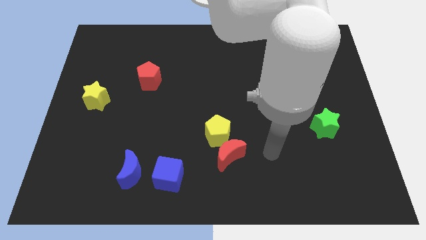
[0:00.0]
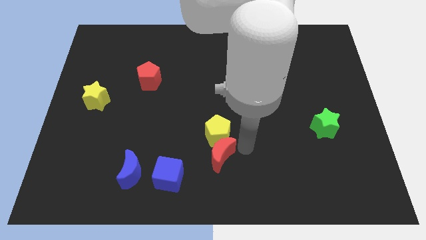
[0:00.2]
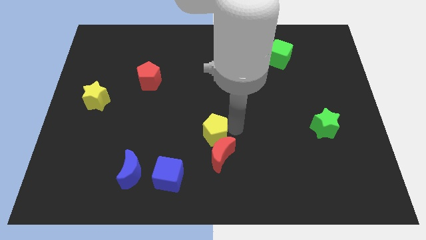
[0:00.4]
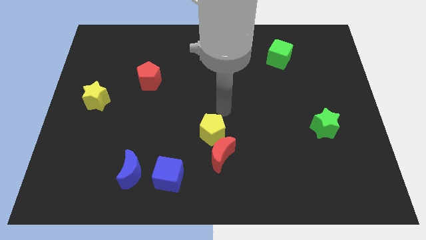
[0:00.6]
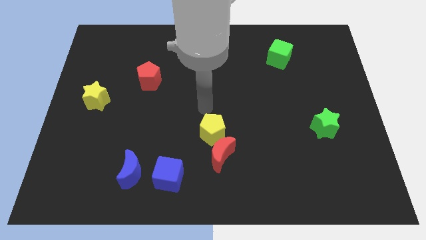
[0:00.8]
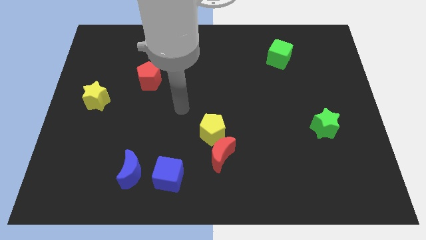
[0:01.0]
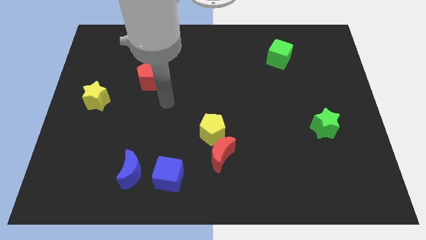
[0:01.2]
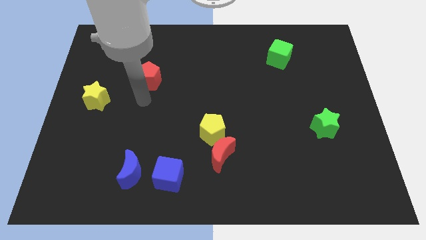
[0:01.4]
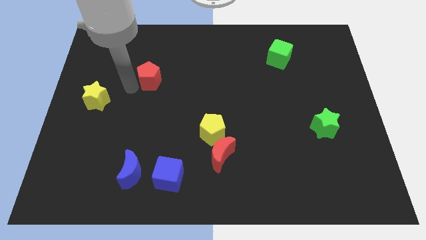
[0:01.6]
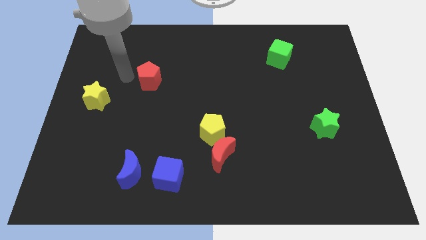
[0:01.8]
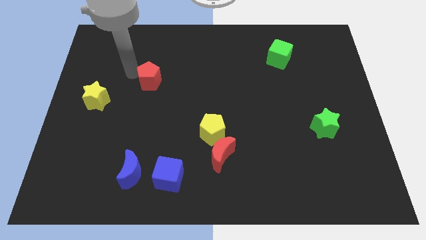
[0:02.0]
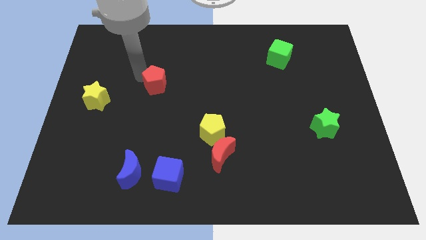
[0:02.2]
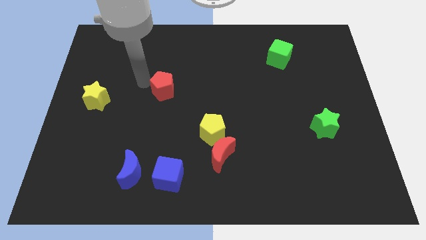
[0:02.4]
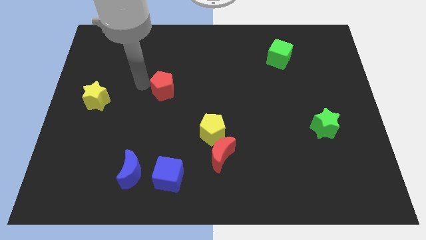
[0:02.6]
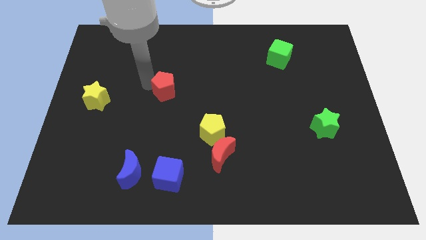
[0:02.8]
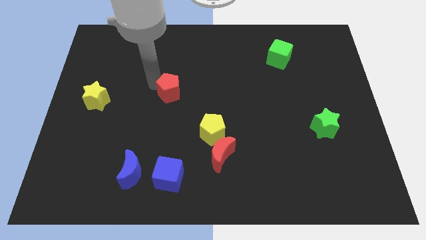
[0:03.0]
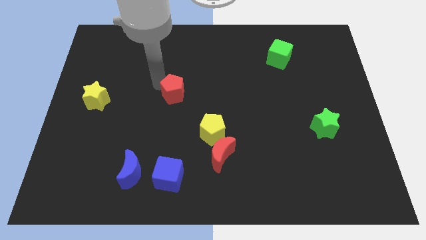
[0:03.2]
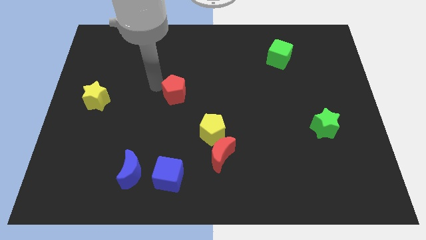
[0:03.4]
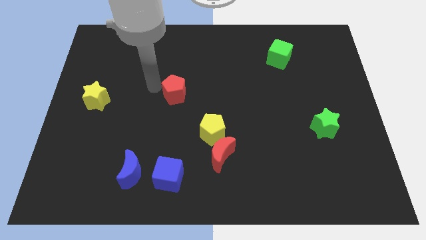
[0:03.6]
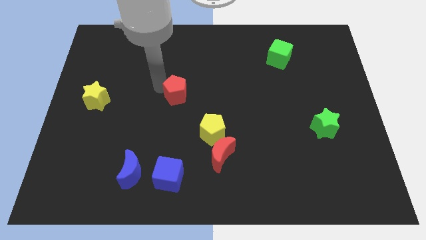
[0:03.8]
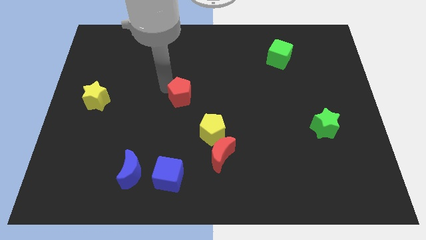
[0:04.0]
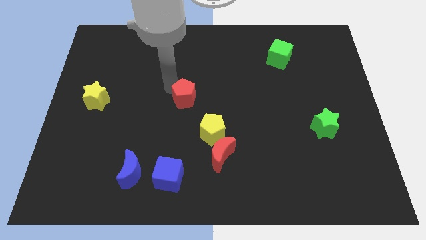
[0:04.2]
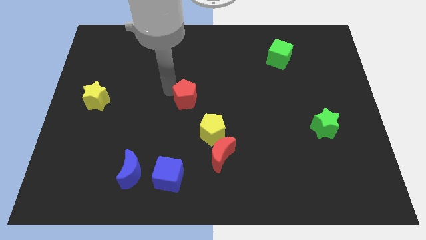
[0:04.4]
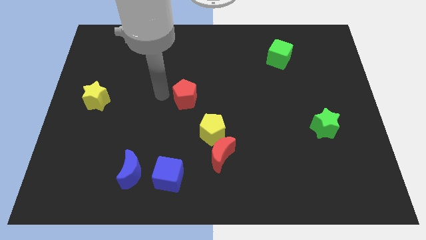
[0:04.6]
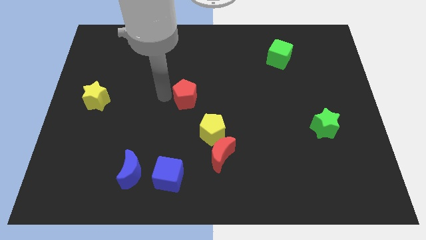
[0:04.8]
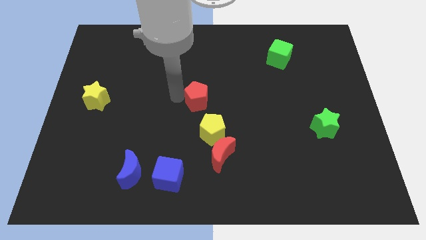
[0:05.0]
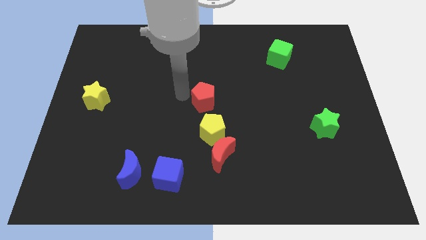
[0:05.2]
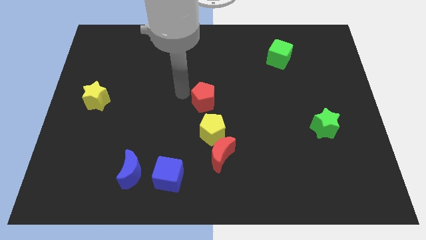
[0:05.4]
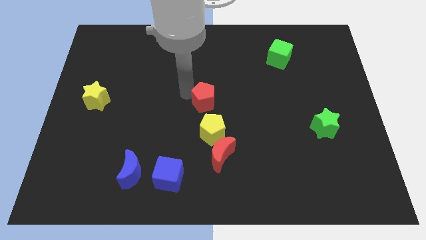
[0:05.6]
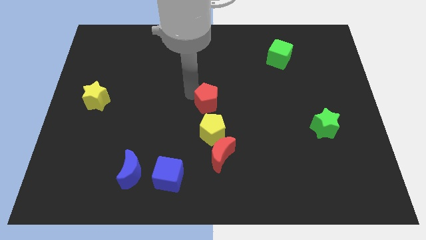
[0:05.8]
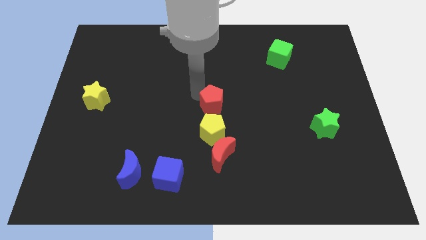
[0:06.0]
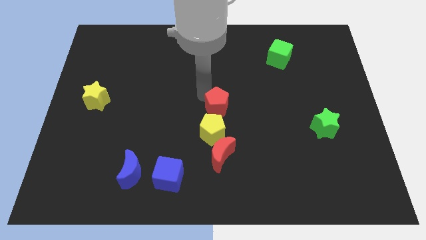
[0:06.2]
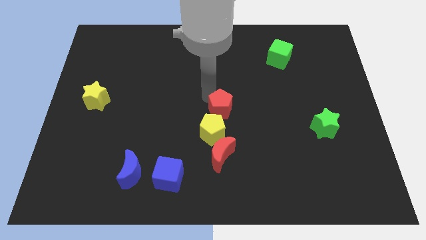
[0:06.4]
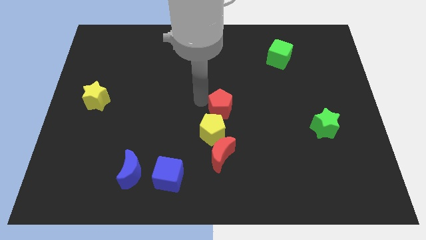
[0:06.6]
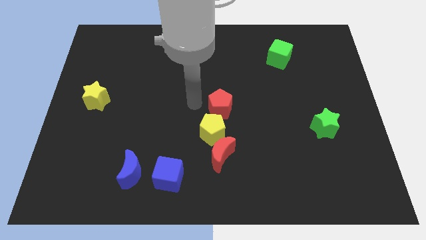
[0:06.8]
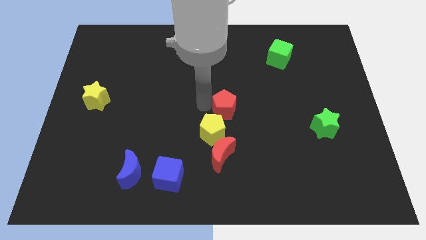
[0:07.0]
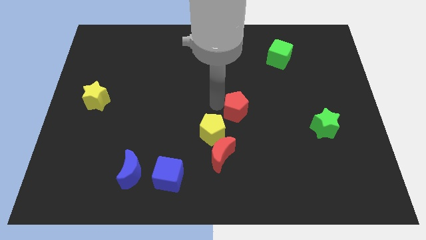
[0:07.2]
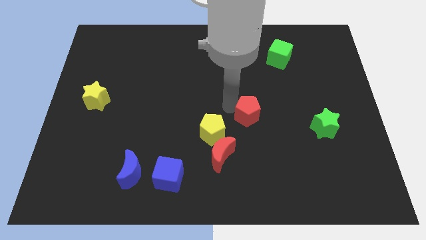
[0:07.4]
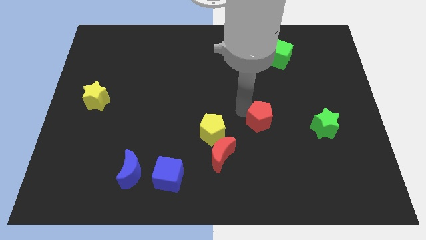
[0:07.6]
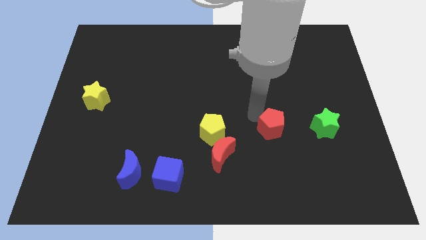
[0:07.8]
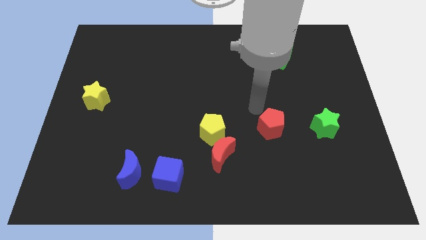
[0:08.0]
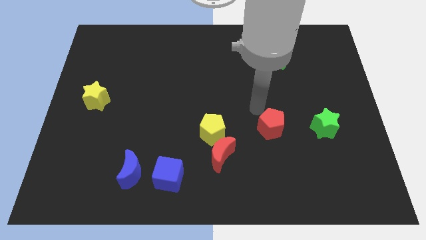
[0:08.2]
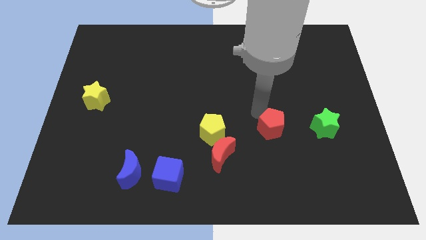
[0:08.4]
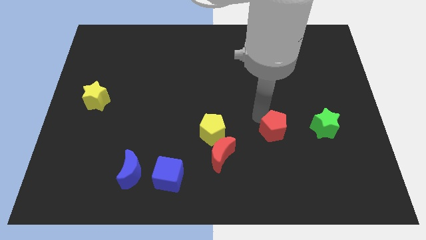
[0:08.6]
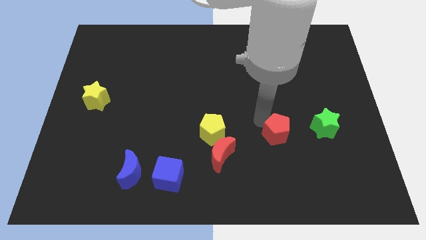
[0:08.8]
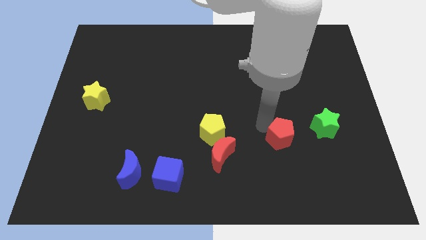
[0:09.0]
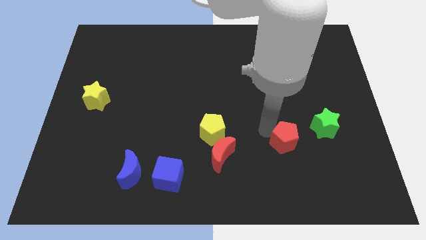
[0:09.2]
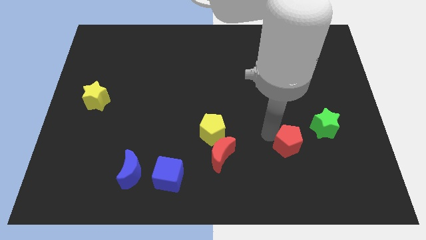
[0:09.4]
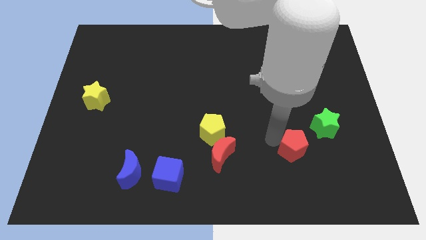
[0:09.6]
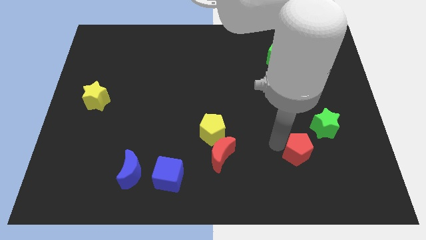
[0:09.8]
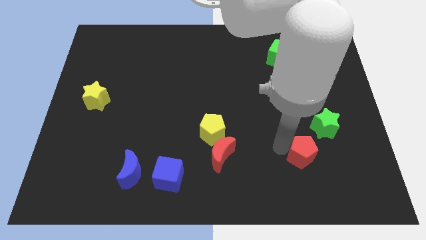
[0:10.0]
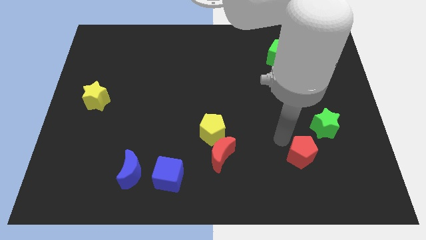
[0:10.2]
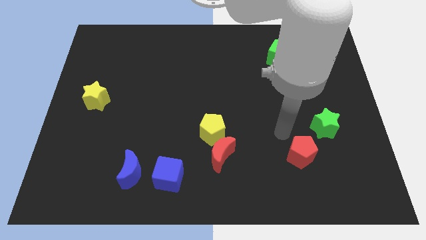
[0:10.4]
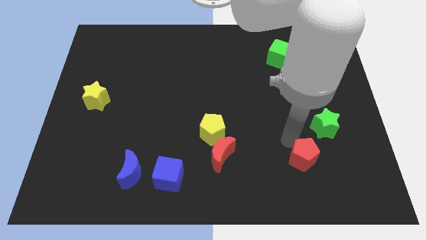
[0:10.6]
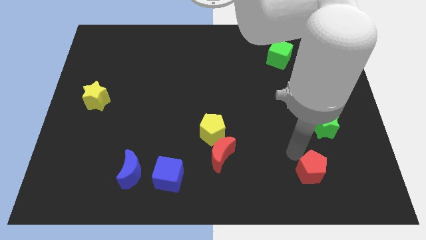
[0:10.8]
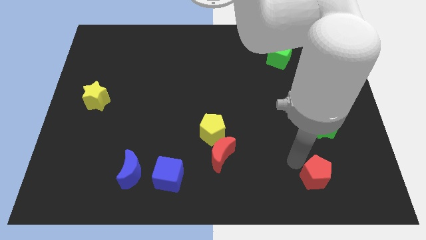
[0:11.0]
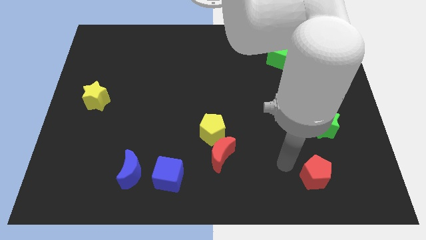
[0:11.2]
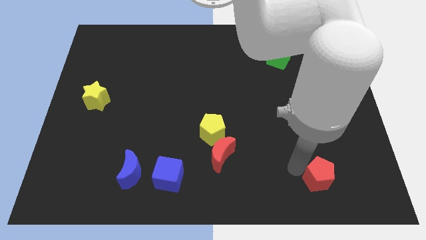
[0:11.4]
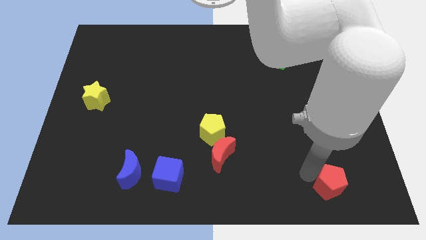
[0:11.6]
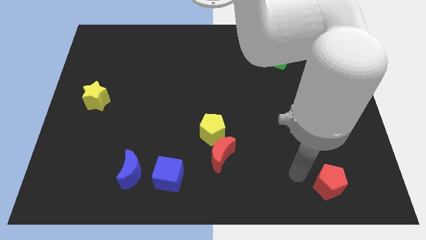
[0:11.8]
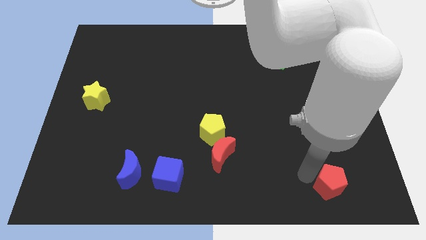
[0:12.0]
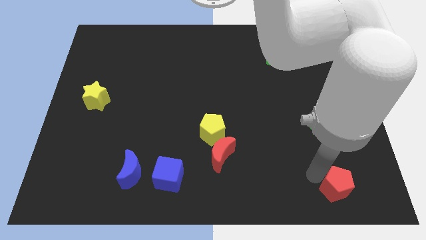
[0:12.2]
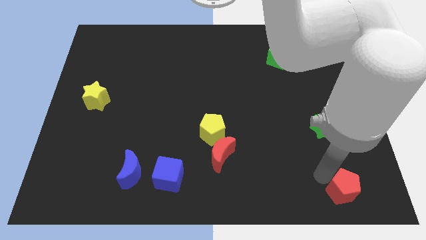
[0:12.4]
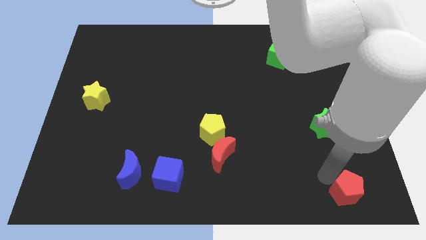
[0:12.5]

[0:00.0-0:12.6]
move the red pentagon to the lower right corner
